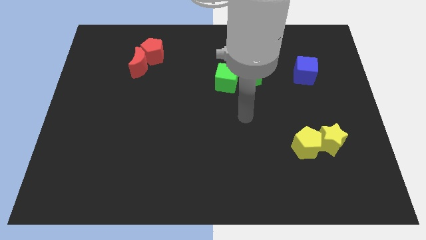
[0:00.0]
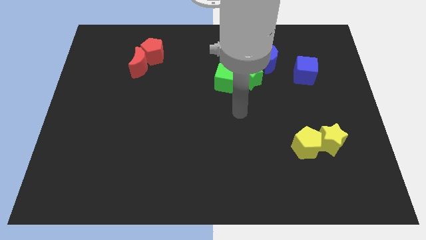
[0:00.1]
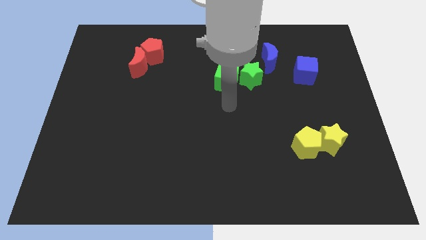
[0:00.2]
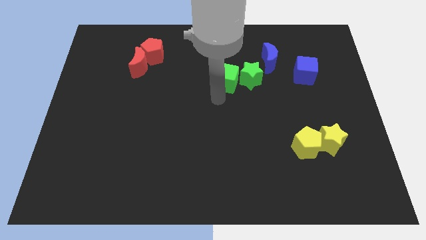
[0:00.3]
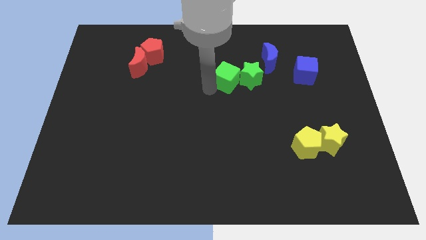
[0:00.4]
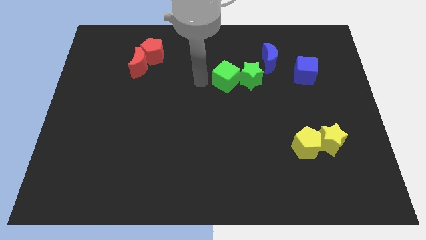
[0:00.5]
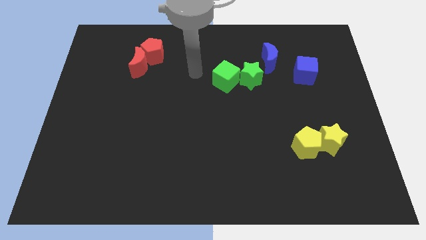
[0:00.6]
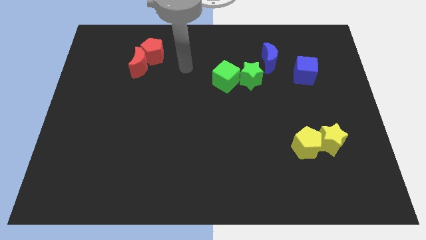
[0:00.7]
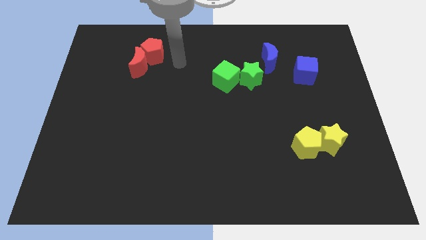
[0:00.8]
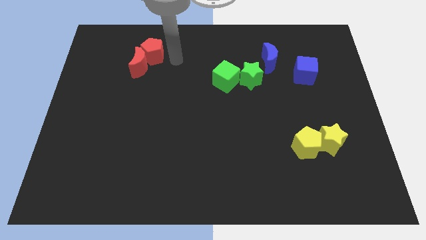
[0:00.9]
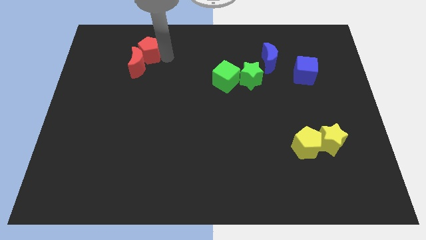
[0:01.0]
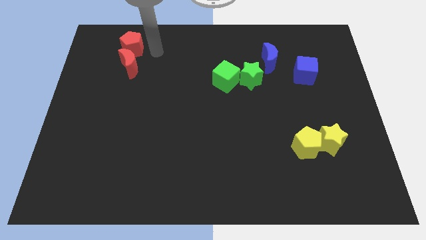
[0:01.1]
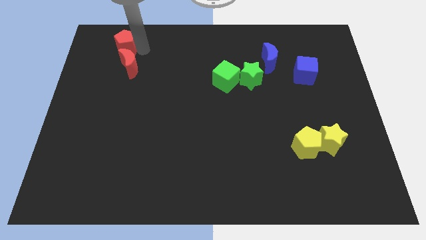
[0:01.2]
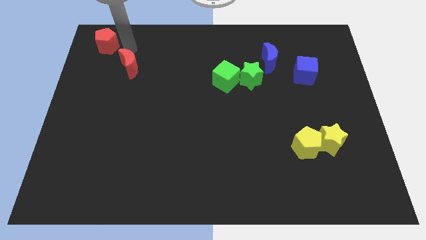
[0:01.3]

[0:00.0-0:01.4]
pull the red moon apart from the red pentagon

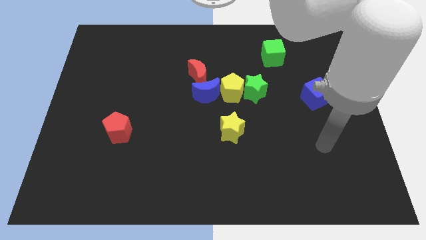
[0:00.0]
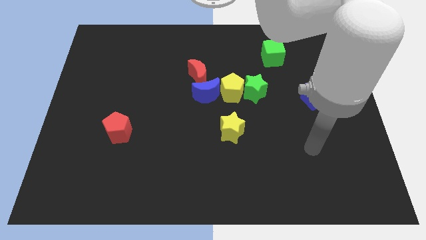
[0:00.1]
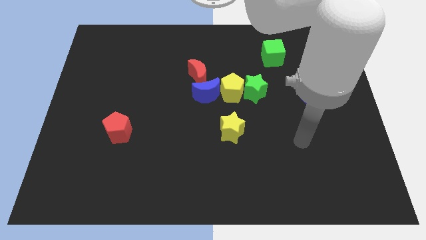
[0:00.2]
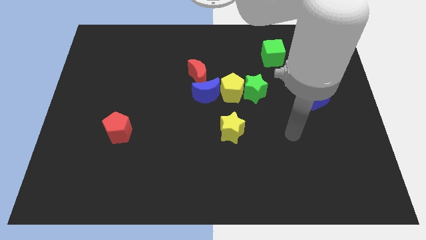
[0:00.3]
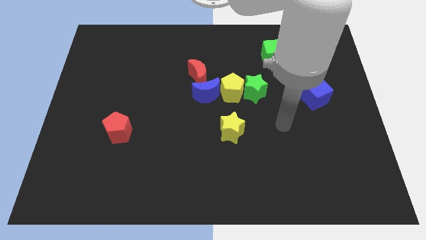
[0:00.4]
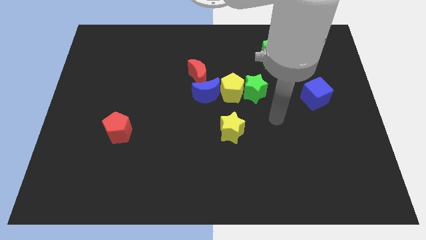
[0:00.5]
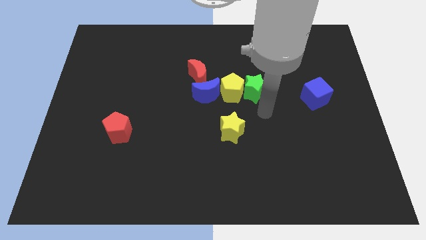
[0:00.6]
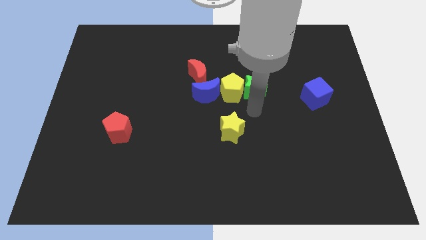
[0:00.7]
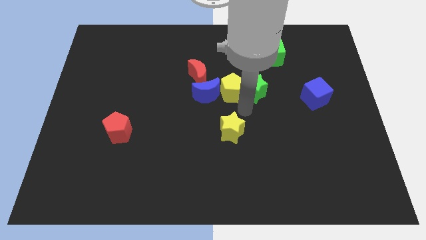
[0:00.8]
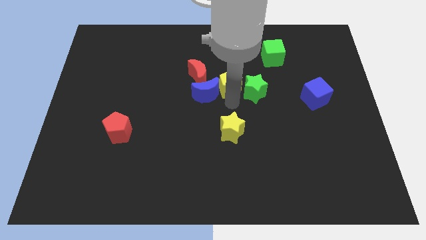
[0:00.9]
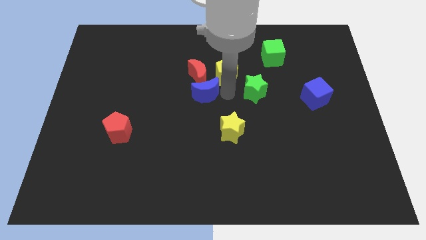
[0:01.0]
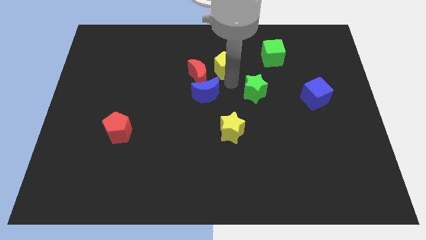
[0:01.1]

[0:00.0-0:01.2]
move the green star away from the yellow pentagon

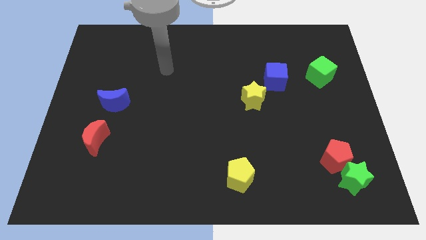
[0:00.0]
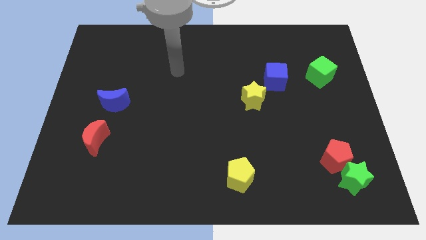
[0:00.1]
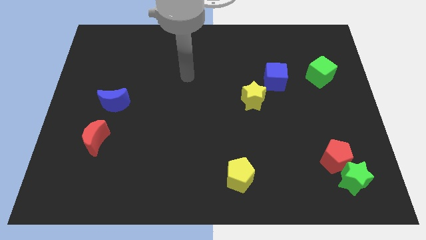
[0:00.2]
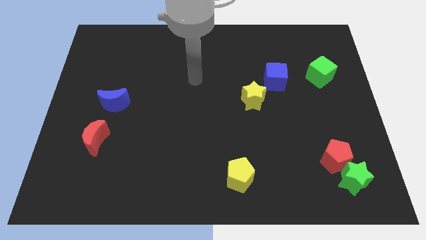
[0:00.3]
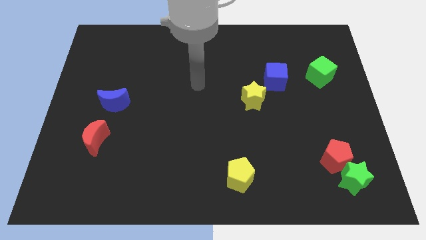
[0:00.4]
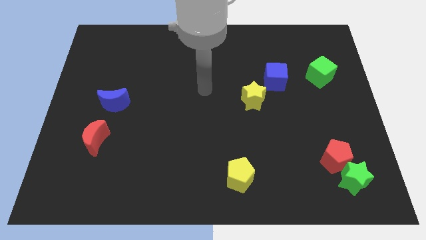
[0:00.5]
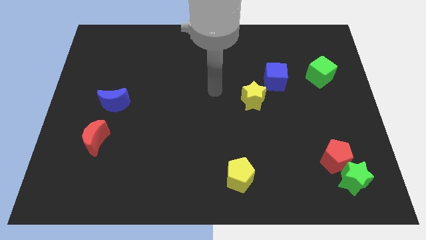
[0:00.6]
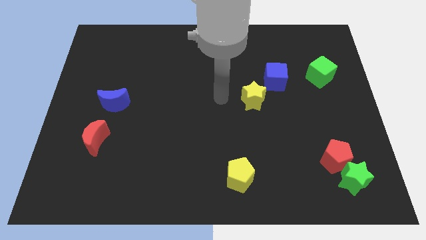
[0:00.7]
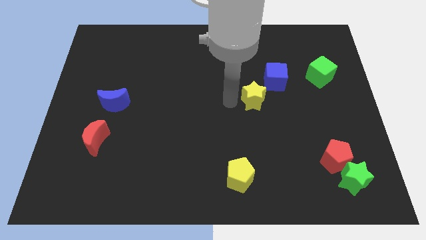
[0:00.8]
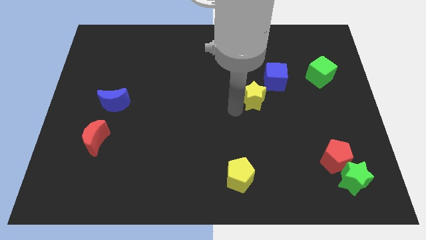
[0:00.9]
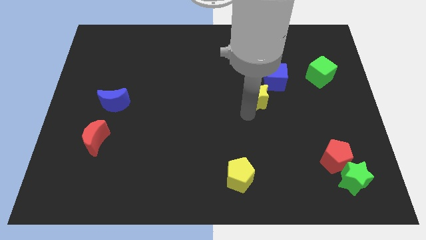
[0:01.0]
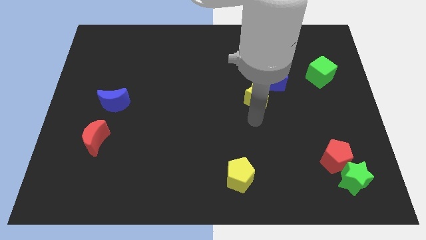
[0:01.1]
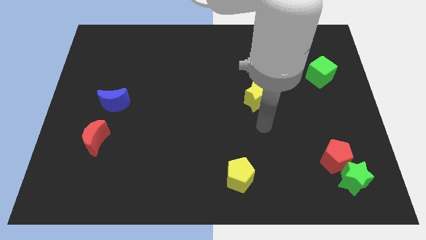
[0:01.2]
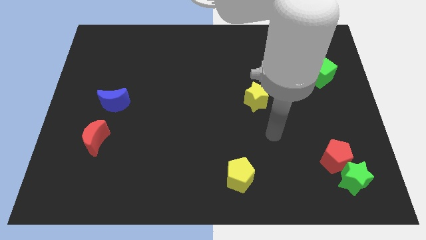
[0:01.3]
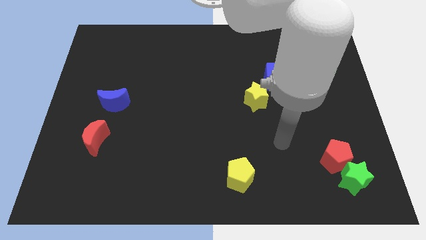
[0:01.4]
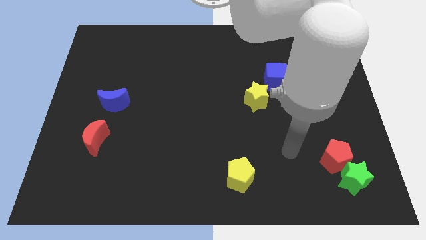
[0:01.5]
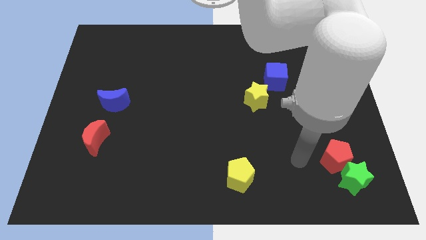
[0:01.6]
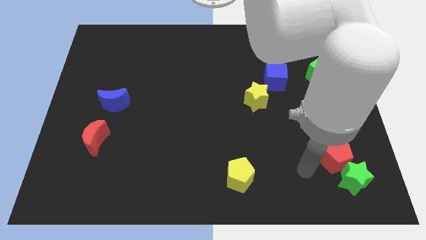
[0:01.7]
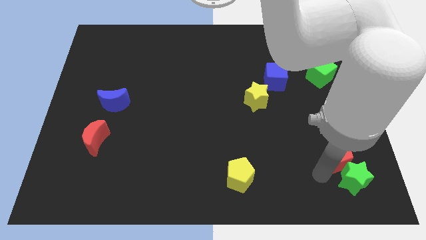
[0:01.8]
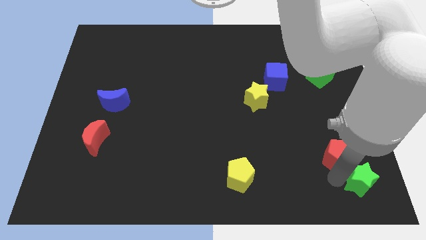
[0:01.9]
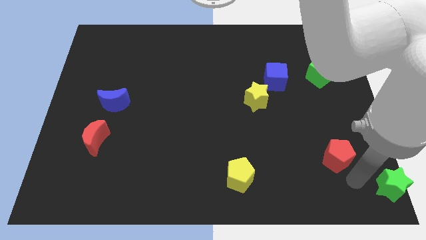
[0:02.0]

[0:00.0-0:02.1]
pull the red pentagon apart from the green star

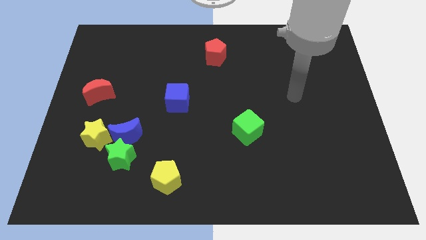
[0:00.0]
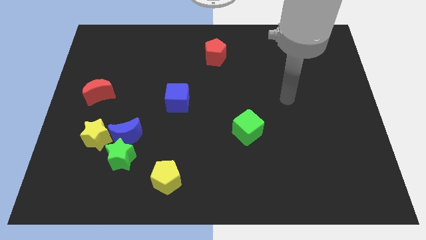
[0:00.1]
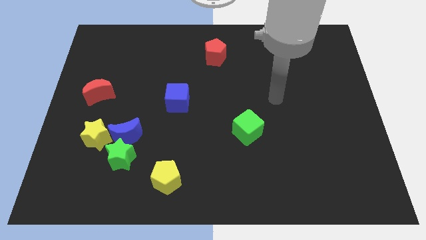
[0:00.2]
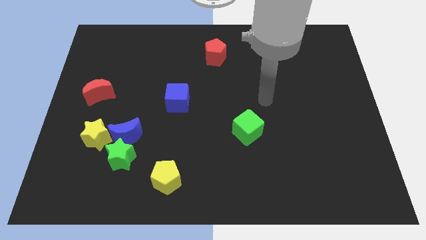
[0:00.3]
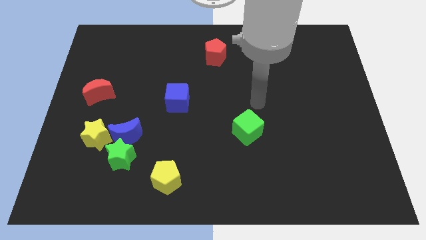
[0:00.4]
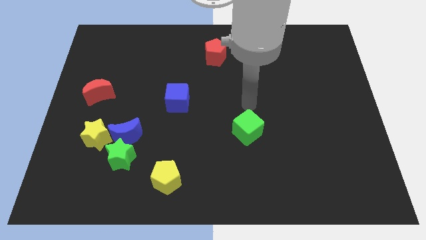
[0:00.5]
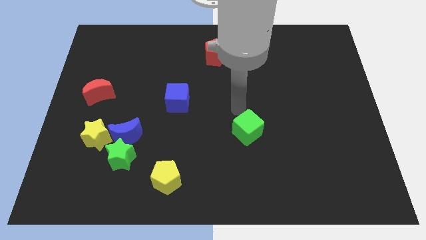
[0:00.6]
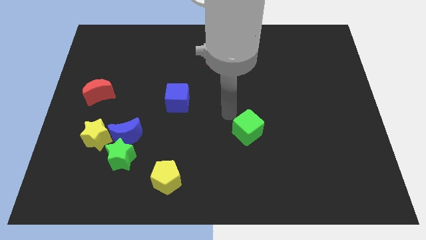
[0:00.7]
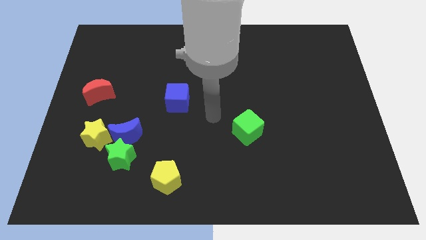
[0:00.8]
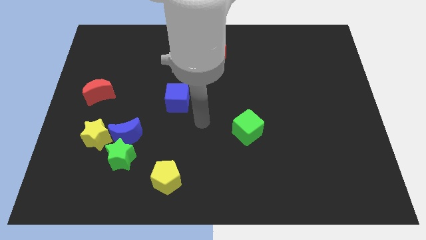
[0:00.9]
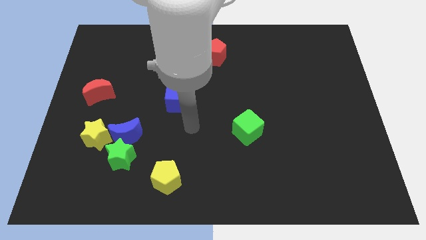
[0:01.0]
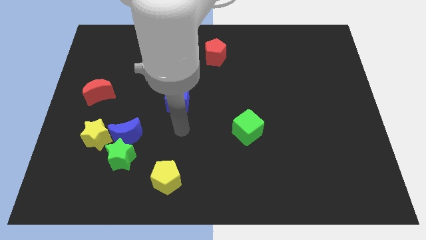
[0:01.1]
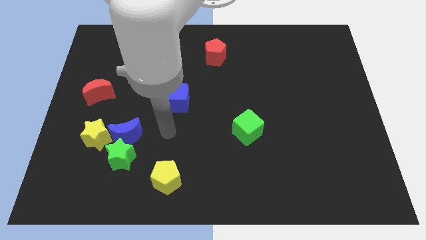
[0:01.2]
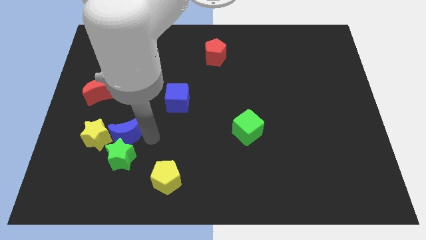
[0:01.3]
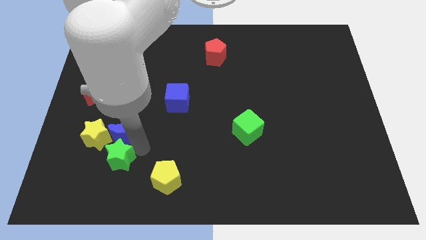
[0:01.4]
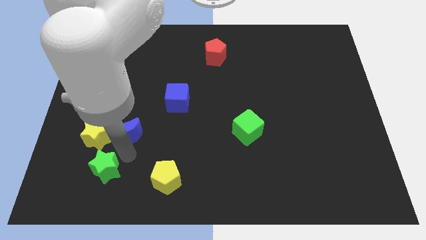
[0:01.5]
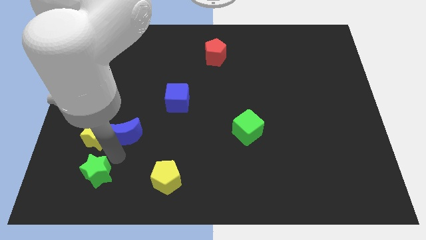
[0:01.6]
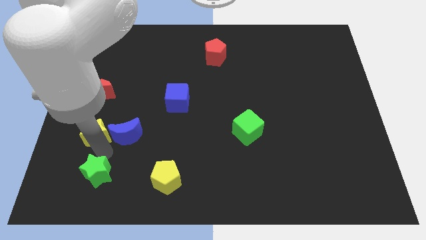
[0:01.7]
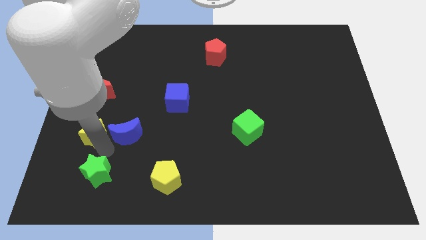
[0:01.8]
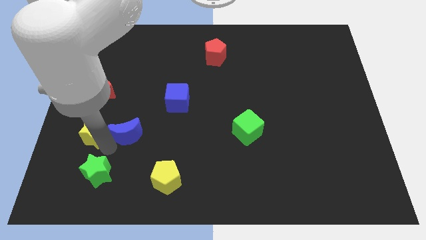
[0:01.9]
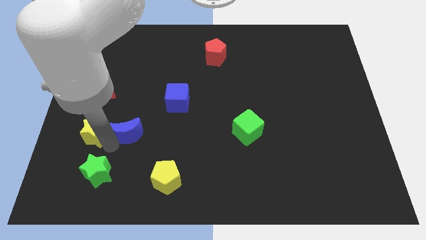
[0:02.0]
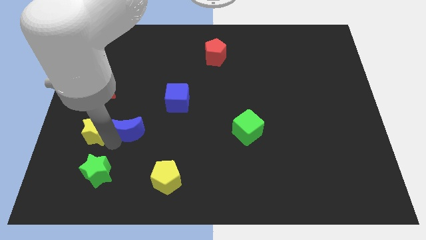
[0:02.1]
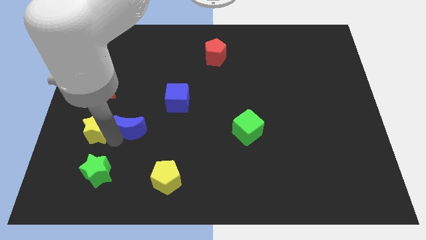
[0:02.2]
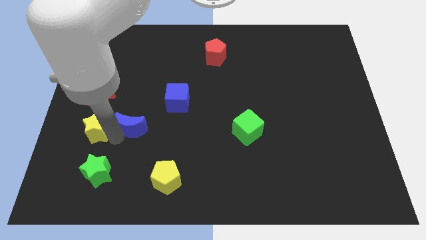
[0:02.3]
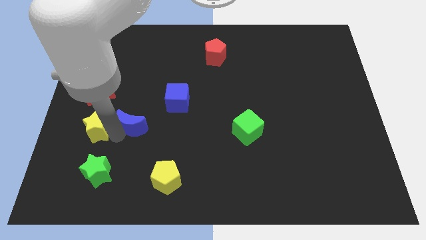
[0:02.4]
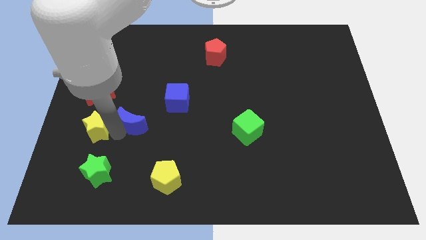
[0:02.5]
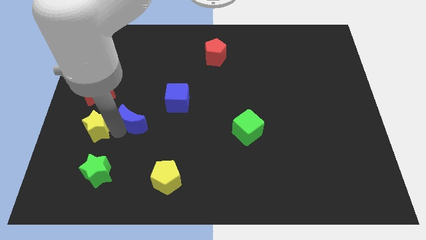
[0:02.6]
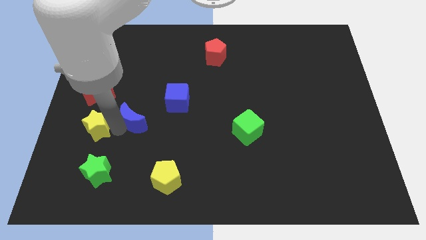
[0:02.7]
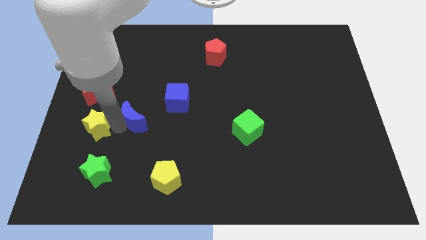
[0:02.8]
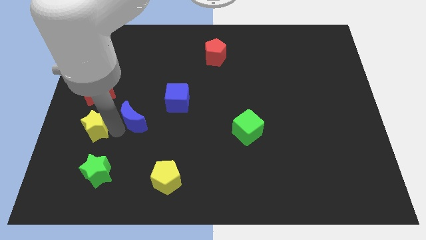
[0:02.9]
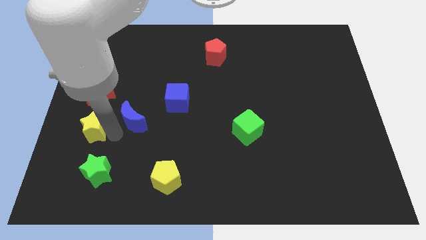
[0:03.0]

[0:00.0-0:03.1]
move the blue moon away from the green star and yellow star

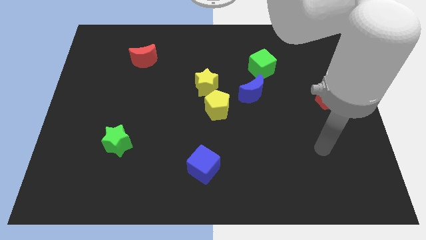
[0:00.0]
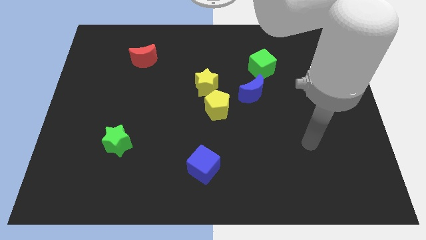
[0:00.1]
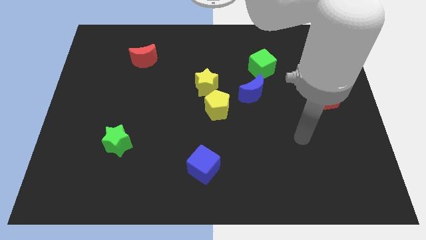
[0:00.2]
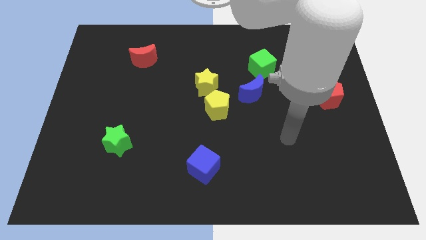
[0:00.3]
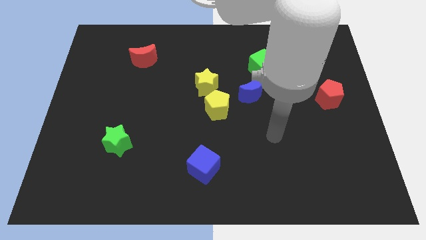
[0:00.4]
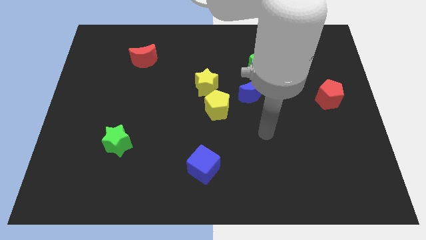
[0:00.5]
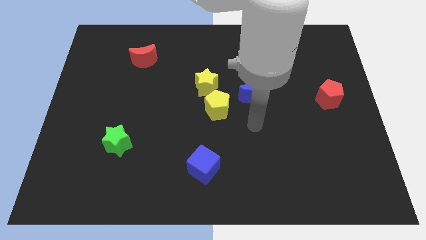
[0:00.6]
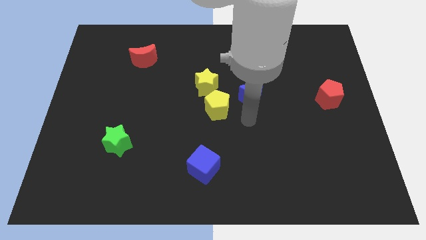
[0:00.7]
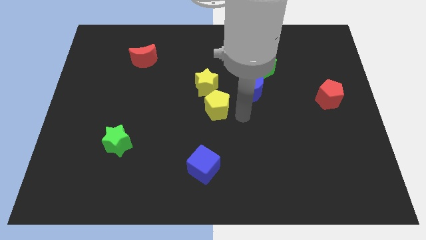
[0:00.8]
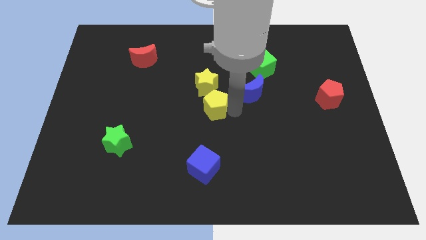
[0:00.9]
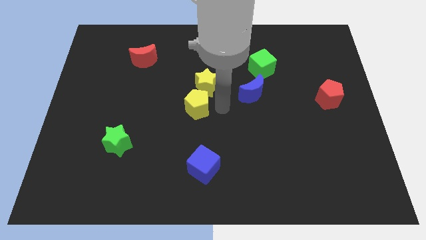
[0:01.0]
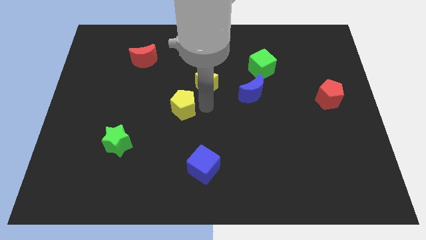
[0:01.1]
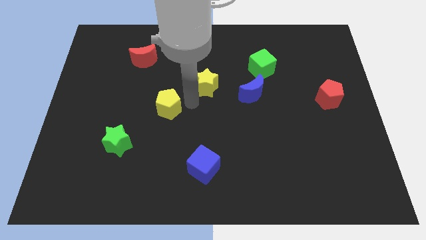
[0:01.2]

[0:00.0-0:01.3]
pull the yellow star apart from the yellow pentagon

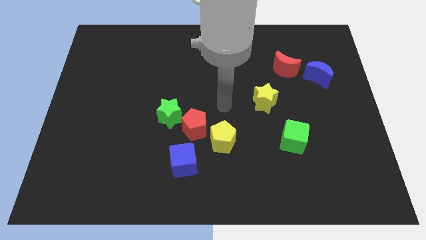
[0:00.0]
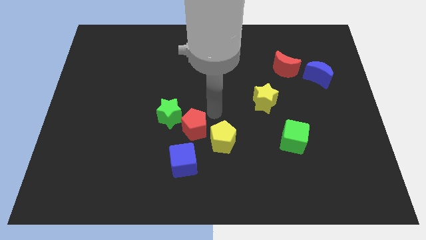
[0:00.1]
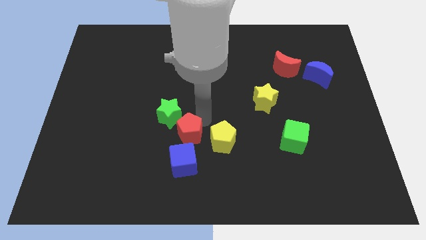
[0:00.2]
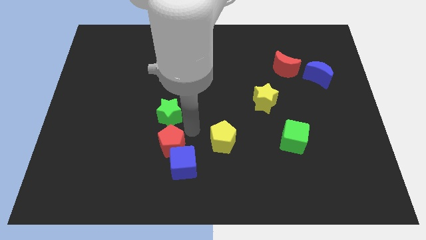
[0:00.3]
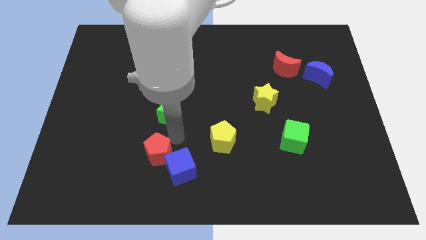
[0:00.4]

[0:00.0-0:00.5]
pull the green star apart from the red pentagon
